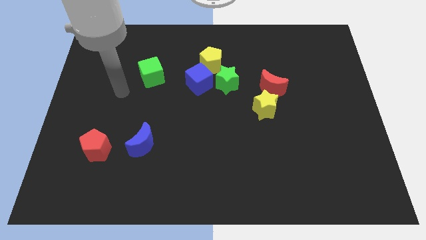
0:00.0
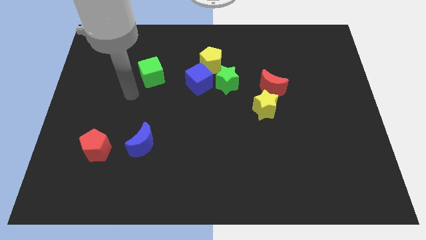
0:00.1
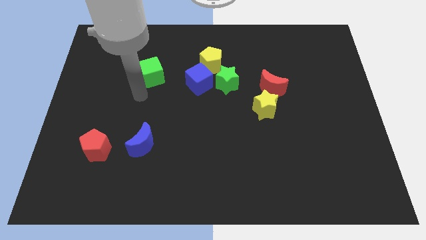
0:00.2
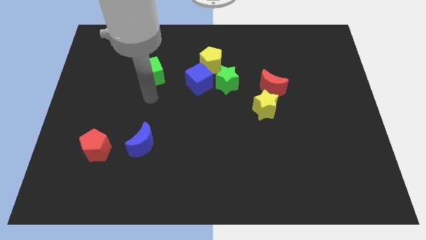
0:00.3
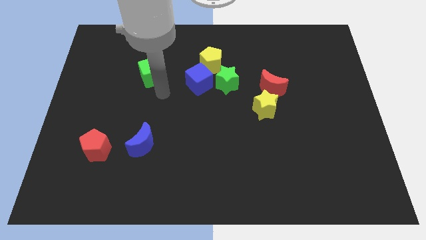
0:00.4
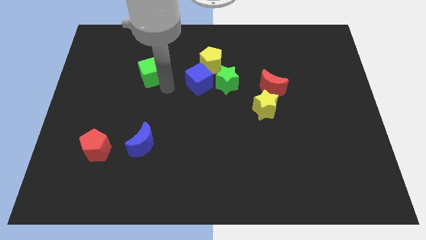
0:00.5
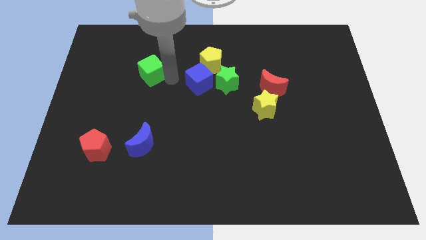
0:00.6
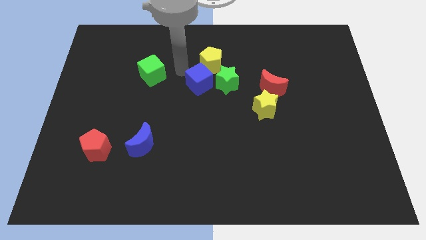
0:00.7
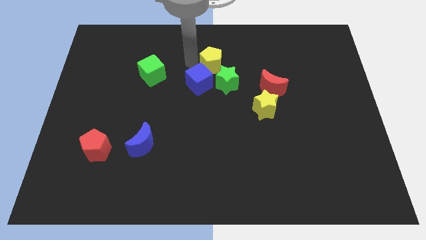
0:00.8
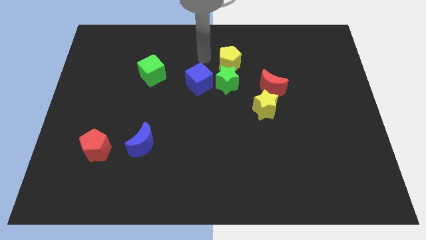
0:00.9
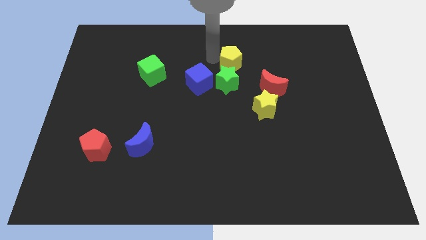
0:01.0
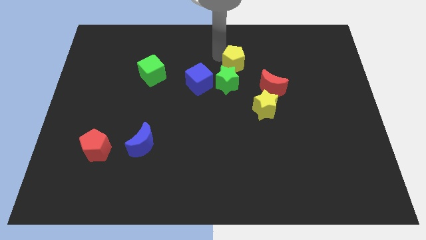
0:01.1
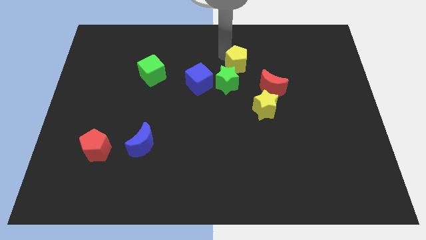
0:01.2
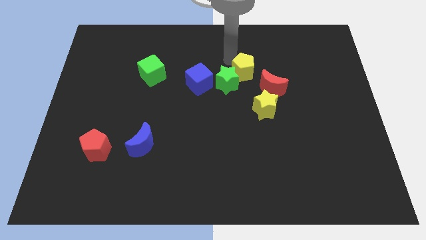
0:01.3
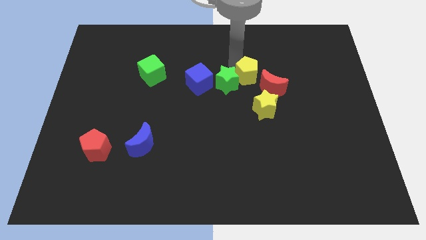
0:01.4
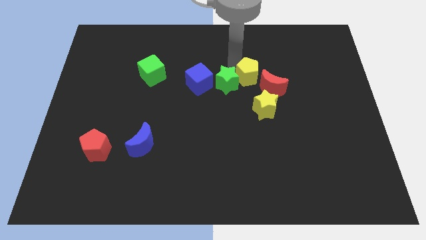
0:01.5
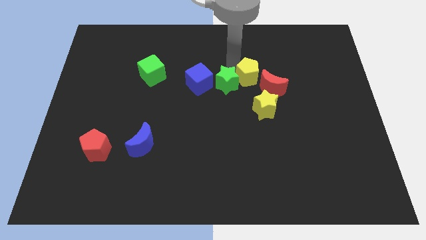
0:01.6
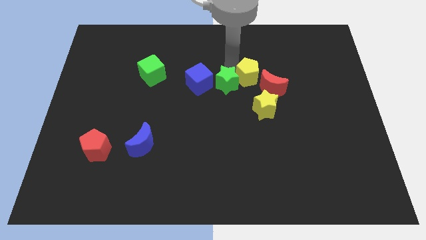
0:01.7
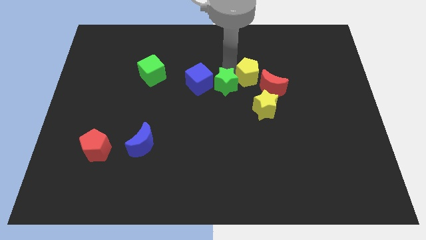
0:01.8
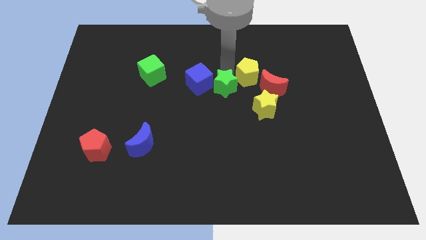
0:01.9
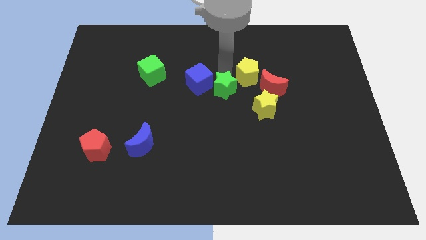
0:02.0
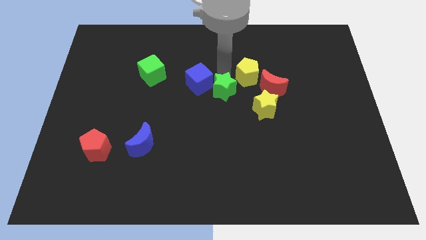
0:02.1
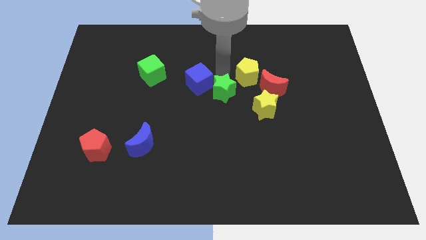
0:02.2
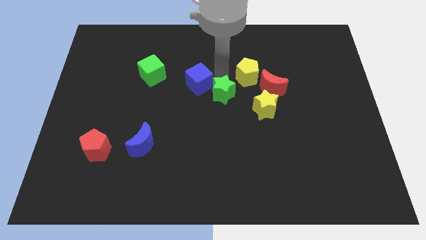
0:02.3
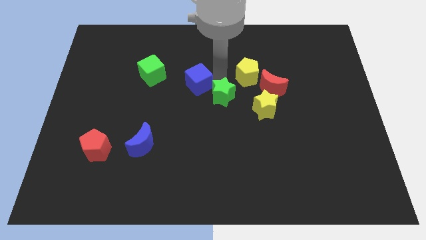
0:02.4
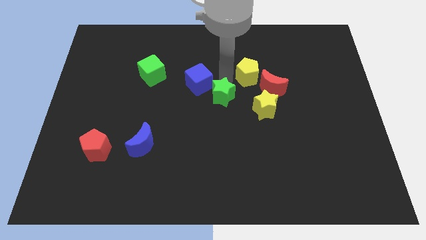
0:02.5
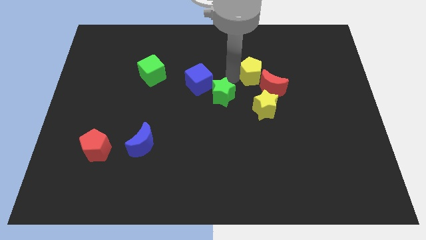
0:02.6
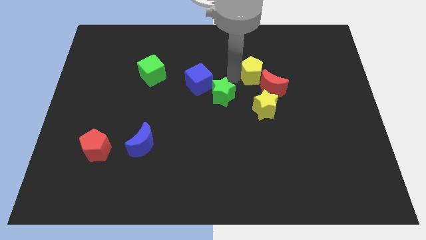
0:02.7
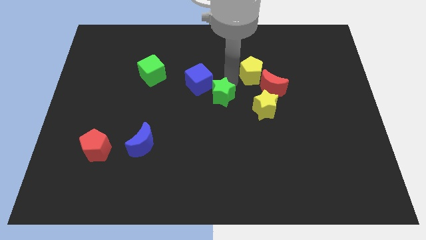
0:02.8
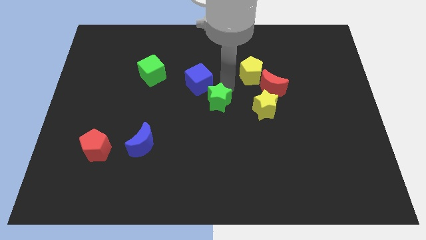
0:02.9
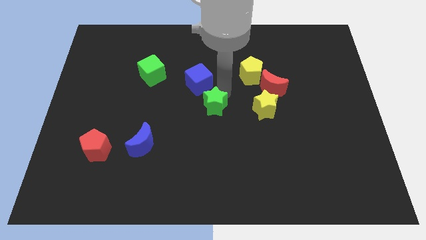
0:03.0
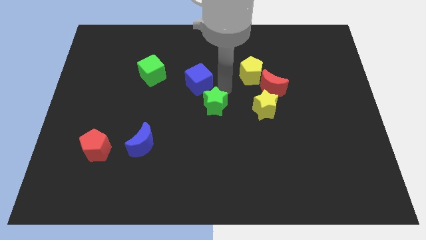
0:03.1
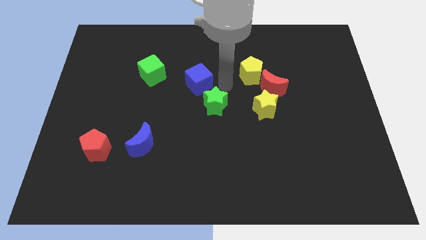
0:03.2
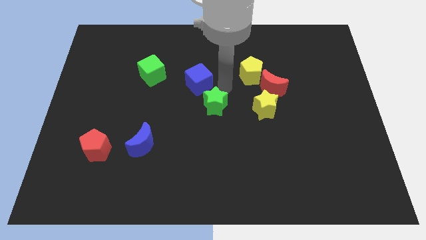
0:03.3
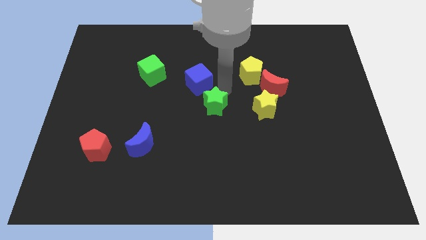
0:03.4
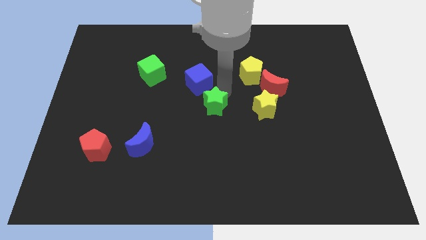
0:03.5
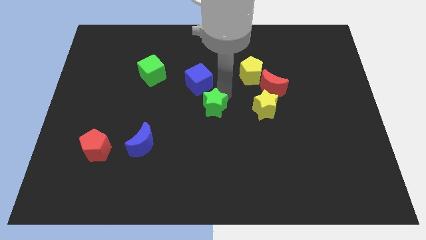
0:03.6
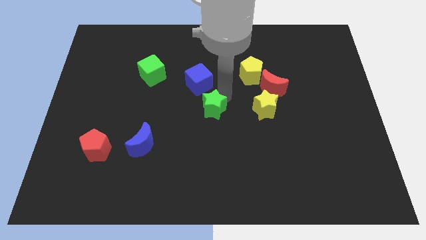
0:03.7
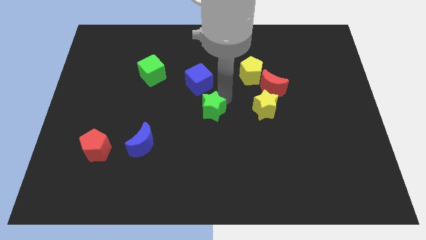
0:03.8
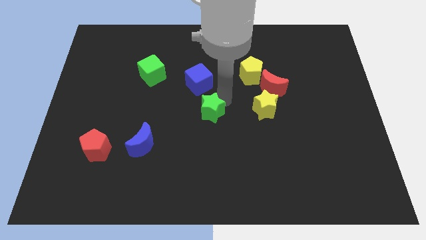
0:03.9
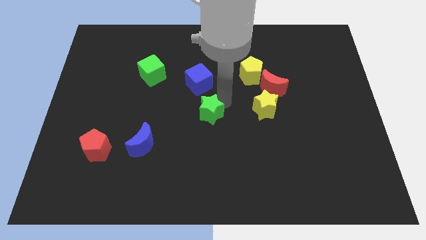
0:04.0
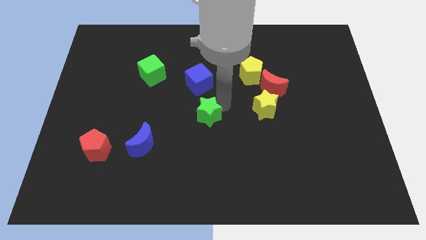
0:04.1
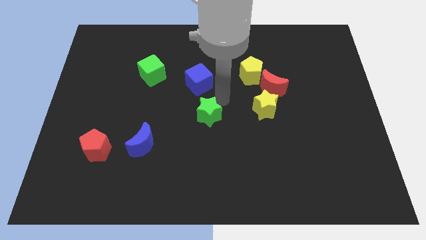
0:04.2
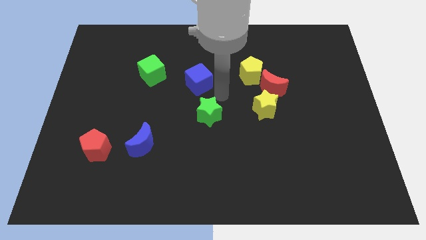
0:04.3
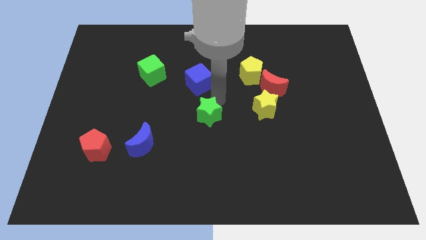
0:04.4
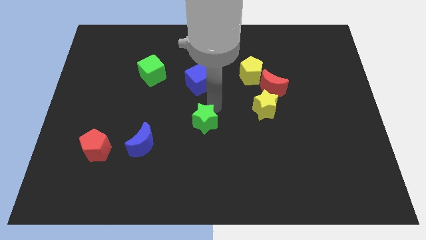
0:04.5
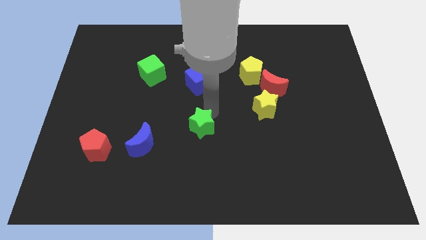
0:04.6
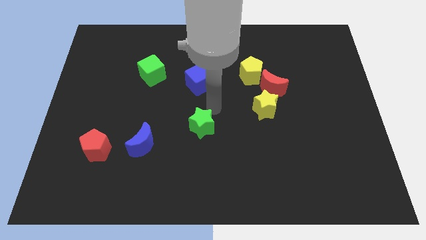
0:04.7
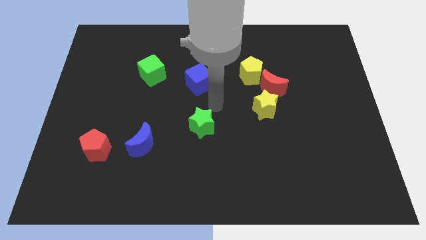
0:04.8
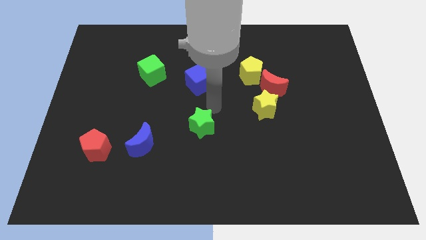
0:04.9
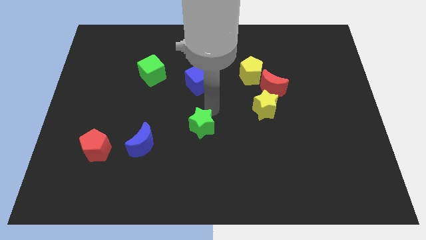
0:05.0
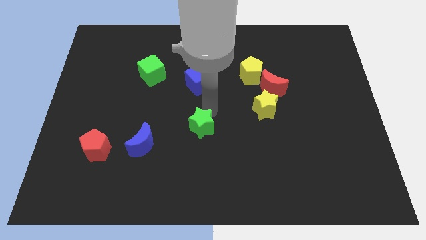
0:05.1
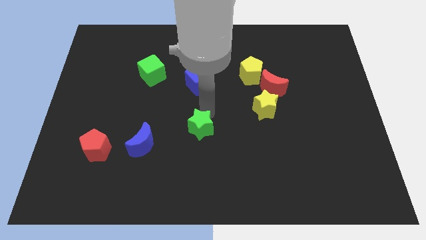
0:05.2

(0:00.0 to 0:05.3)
slide the green star right of the blue moon

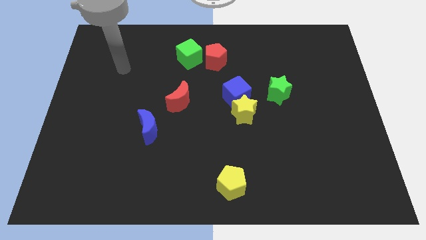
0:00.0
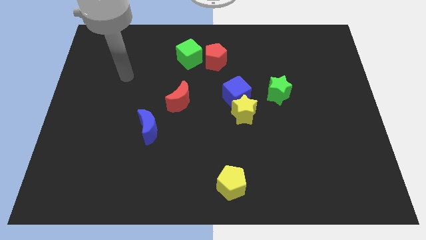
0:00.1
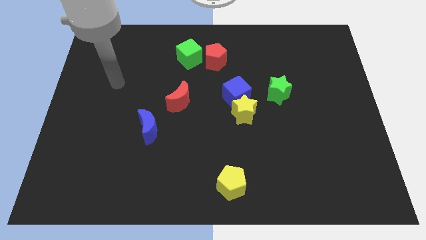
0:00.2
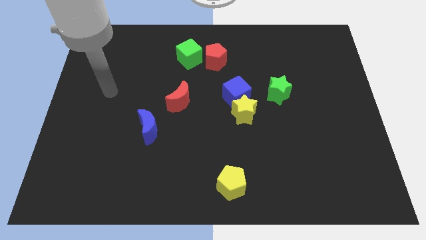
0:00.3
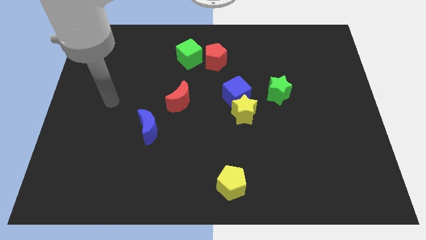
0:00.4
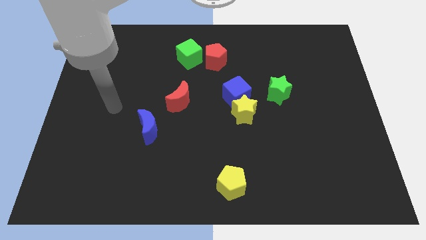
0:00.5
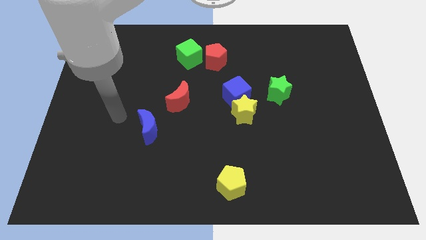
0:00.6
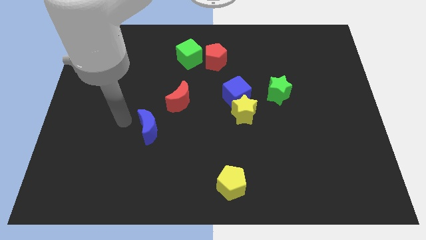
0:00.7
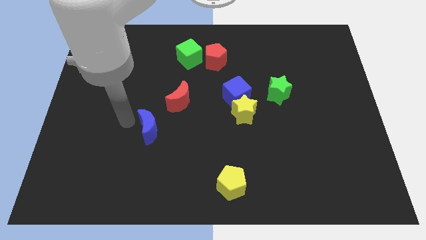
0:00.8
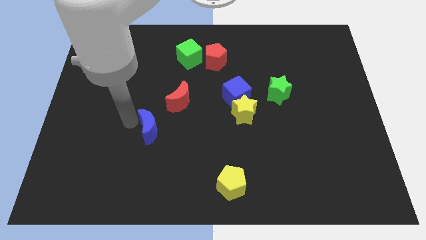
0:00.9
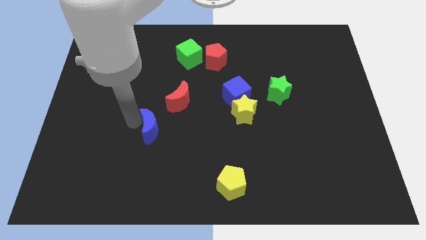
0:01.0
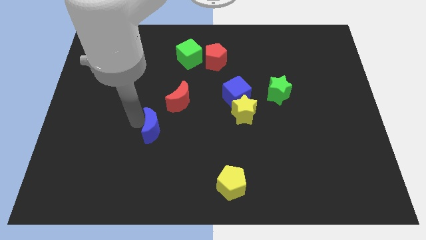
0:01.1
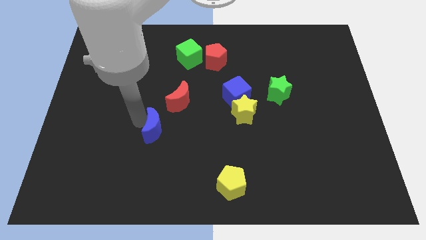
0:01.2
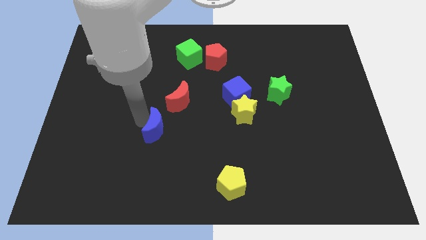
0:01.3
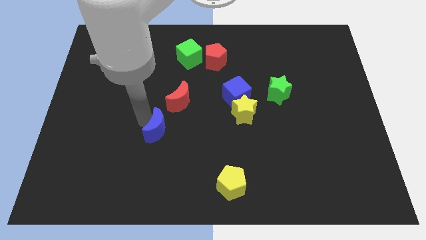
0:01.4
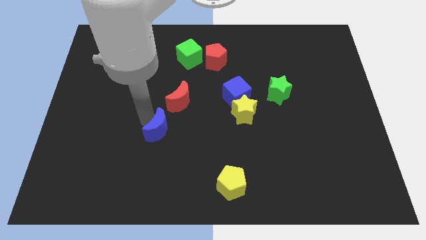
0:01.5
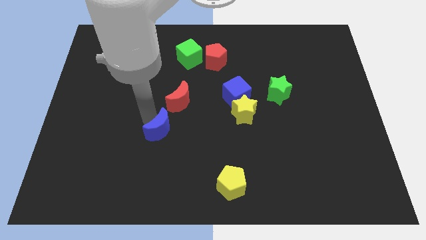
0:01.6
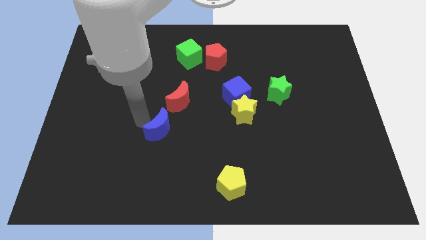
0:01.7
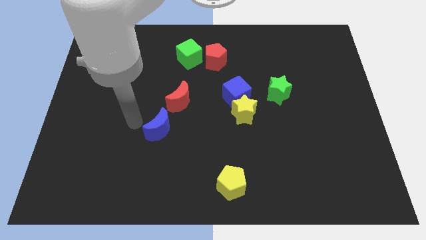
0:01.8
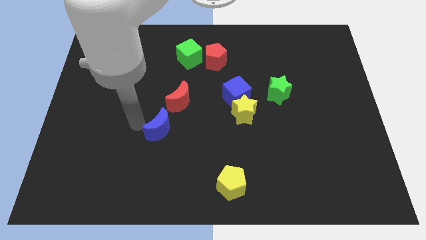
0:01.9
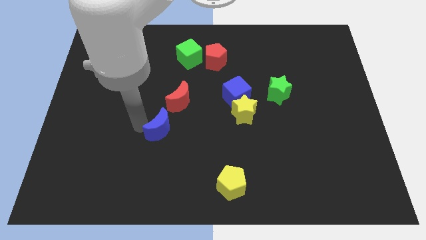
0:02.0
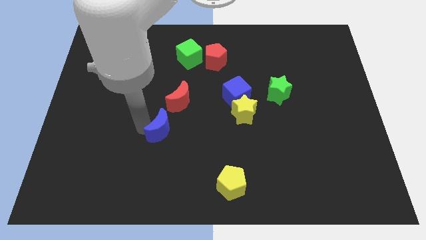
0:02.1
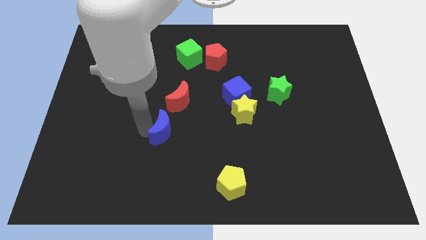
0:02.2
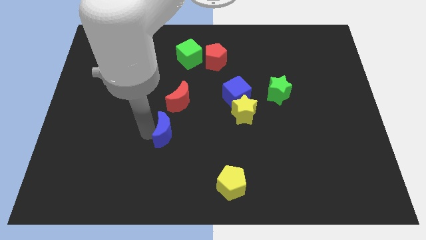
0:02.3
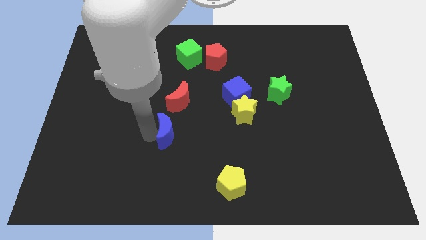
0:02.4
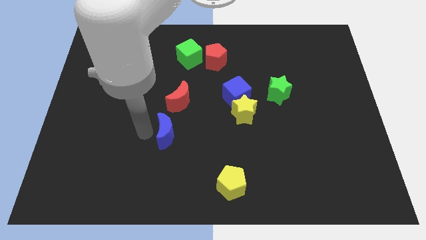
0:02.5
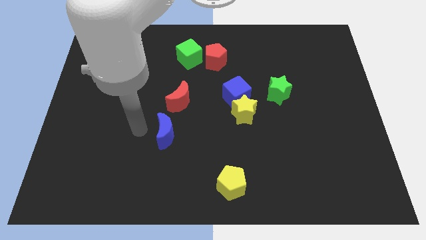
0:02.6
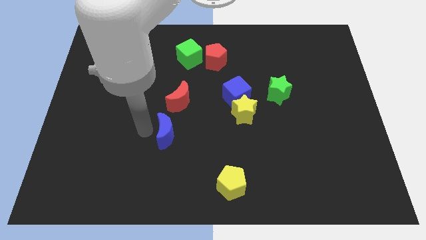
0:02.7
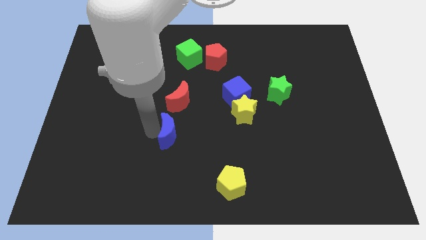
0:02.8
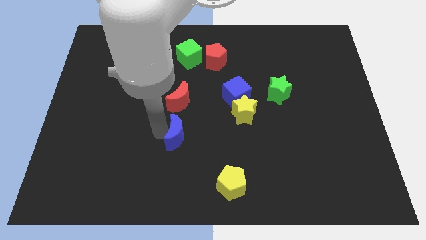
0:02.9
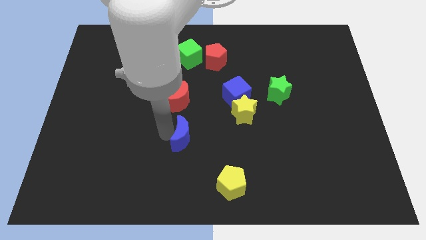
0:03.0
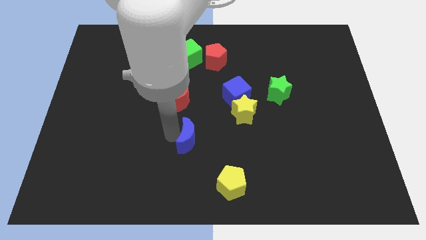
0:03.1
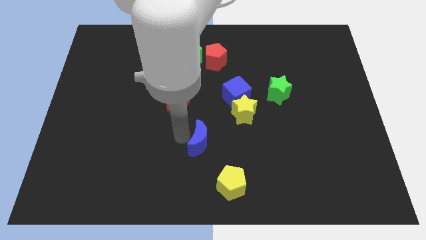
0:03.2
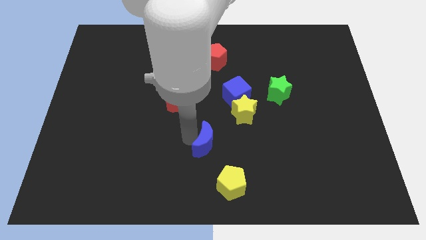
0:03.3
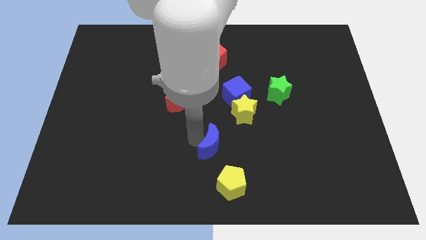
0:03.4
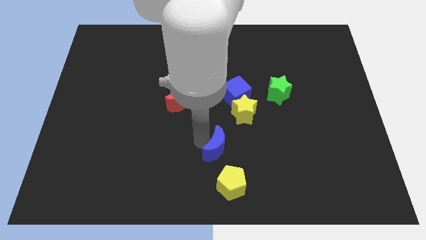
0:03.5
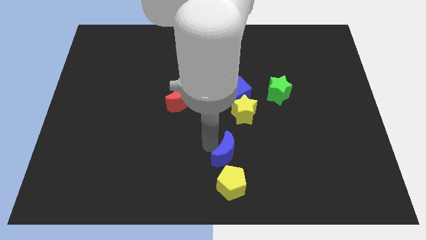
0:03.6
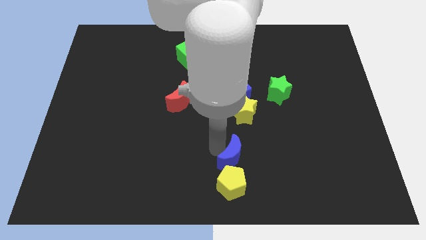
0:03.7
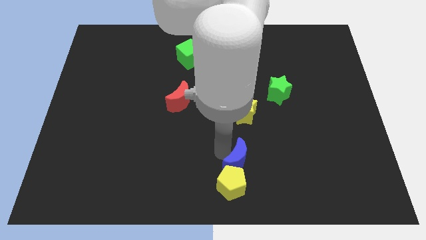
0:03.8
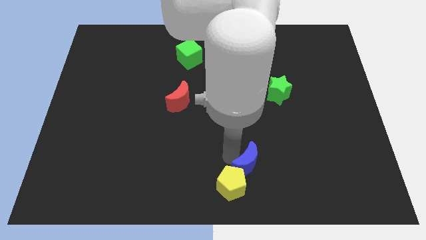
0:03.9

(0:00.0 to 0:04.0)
push the blue moon to the right of the yellow pentagon
